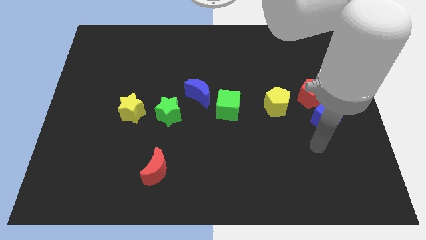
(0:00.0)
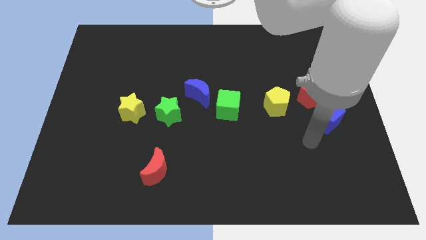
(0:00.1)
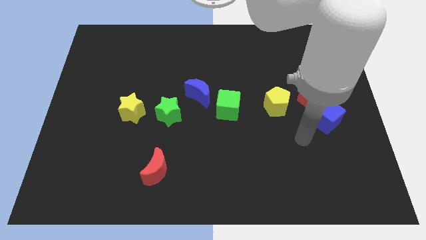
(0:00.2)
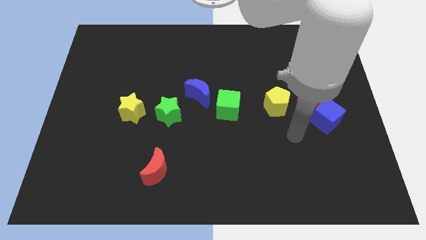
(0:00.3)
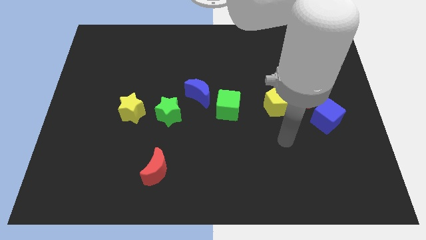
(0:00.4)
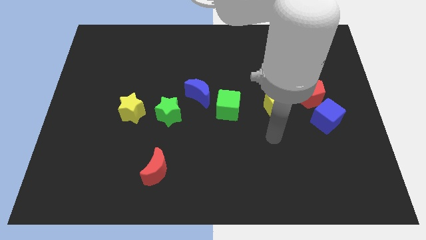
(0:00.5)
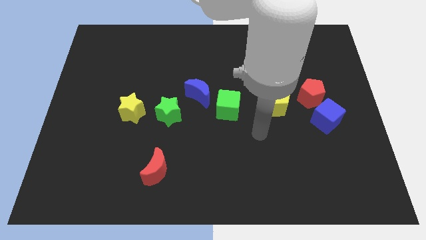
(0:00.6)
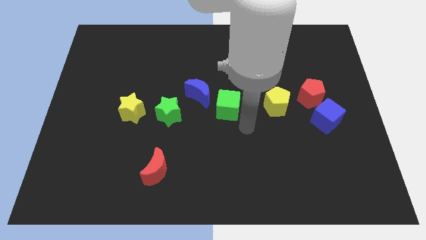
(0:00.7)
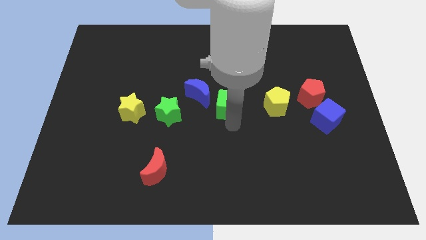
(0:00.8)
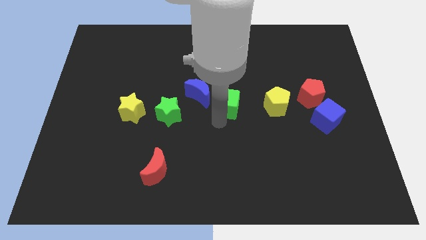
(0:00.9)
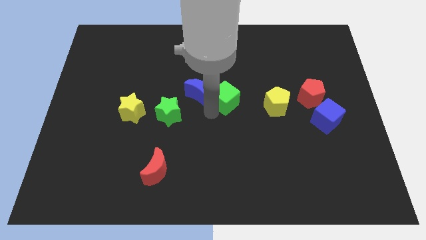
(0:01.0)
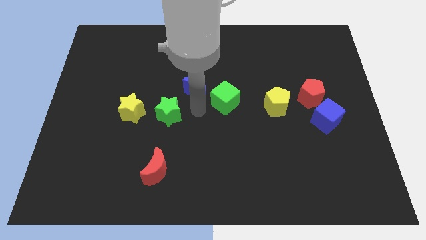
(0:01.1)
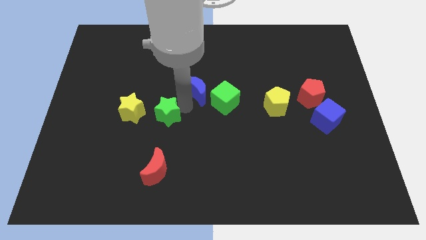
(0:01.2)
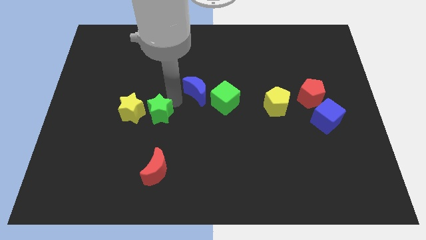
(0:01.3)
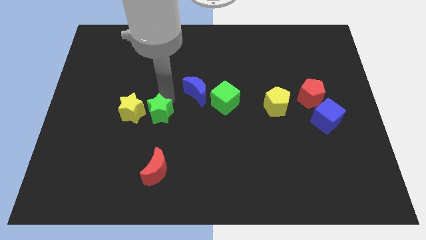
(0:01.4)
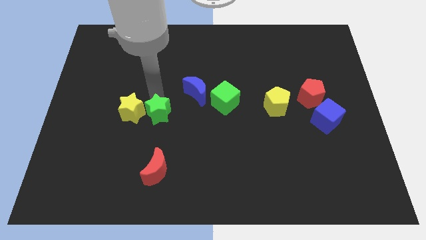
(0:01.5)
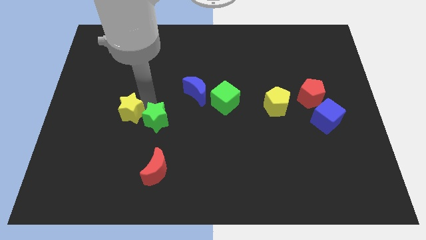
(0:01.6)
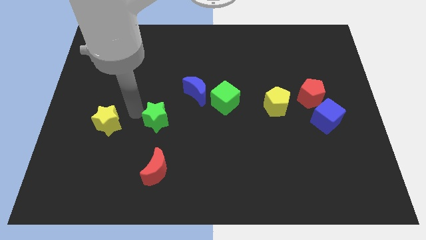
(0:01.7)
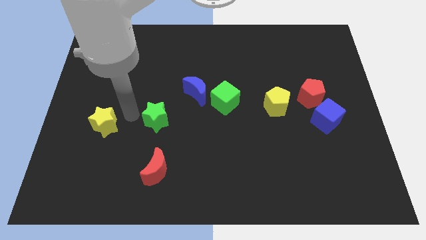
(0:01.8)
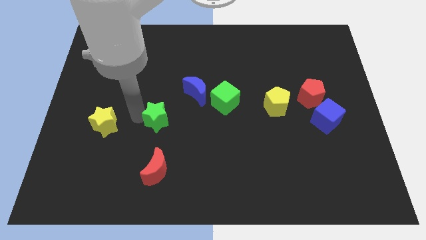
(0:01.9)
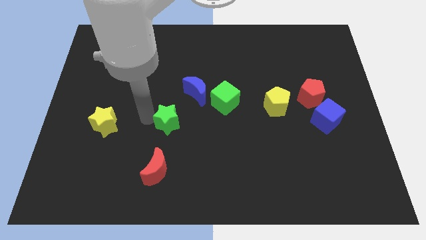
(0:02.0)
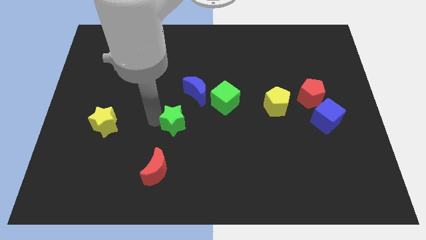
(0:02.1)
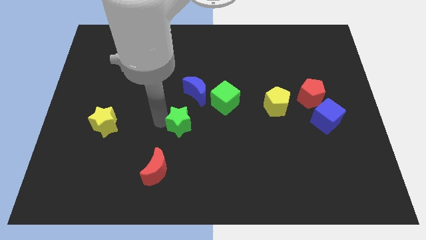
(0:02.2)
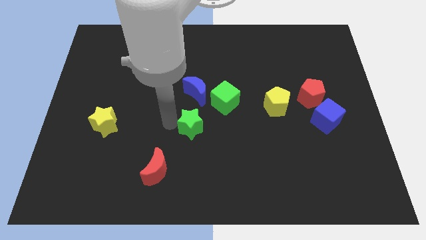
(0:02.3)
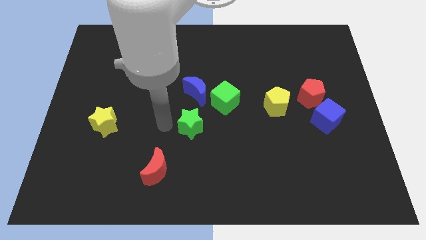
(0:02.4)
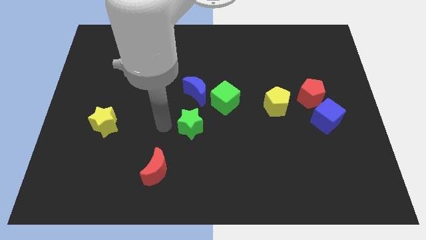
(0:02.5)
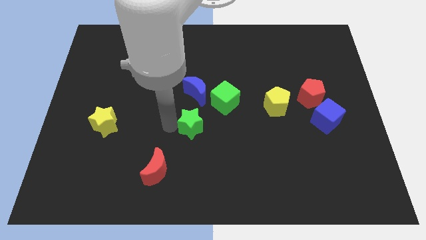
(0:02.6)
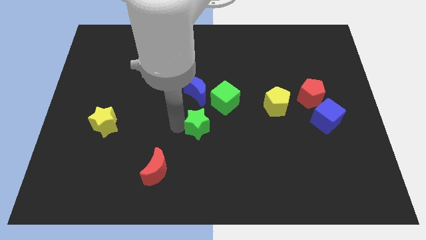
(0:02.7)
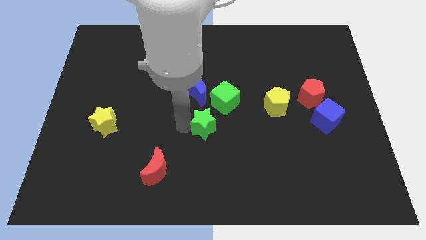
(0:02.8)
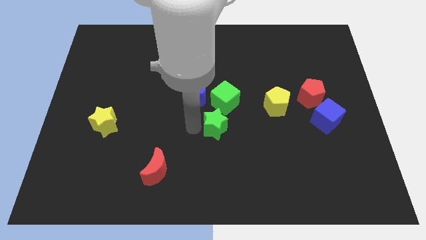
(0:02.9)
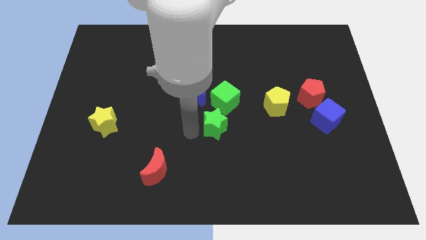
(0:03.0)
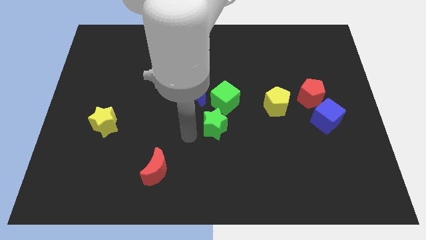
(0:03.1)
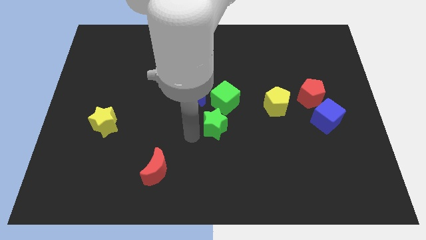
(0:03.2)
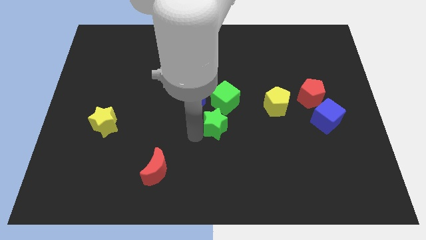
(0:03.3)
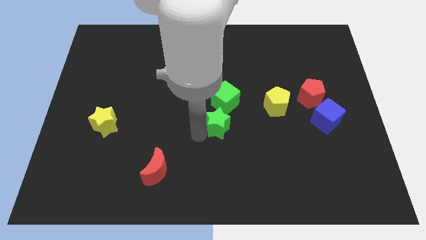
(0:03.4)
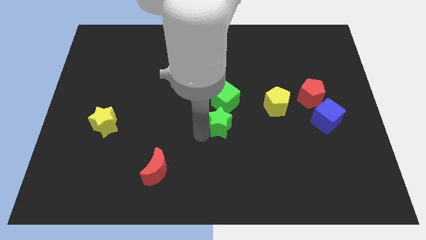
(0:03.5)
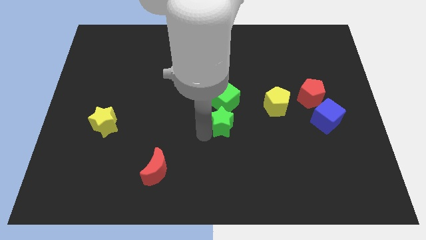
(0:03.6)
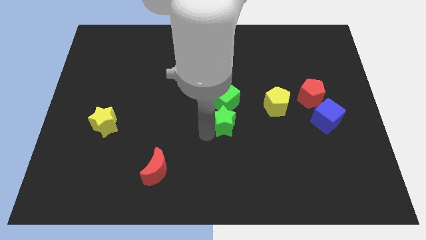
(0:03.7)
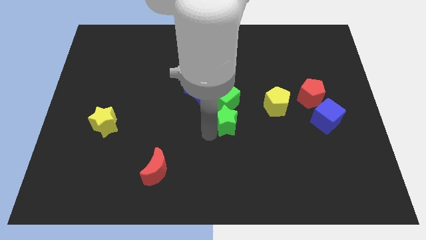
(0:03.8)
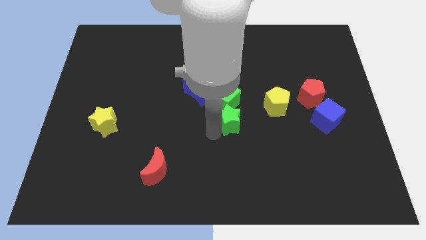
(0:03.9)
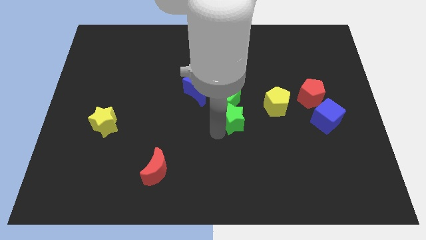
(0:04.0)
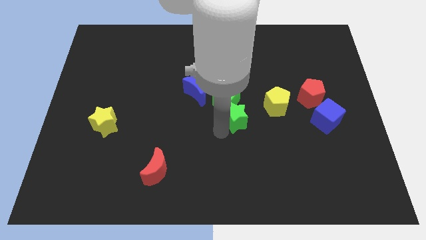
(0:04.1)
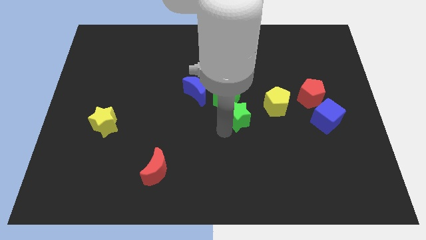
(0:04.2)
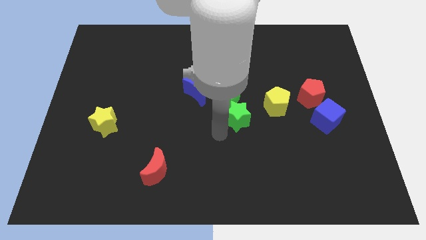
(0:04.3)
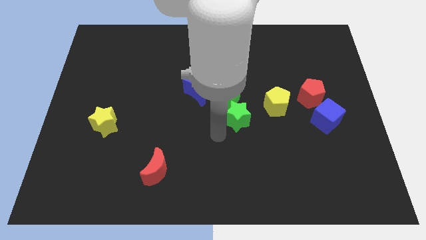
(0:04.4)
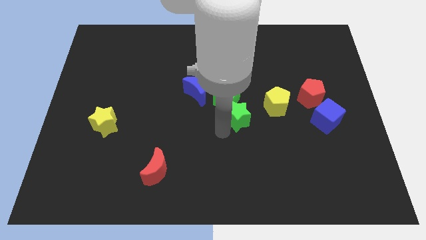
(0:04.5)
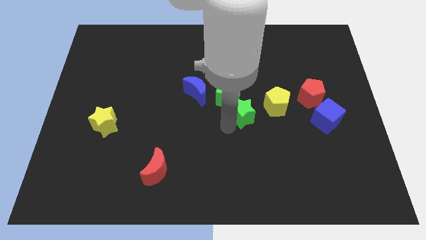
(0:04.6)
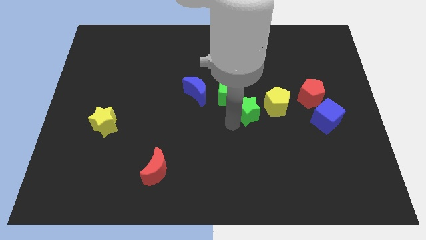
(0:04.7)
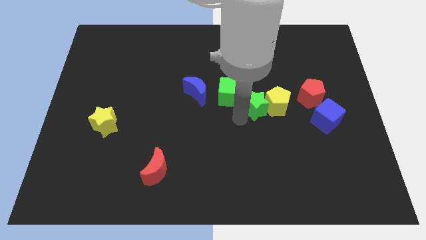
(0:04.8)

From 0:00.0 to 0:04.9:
push the green star left of the red pentagon

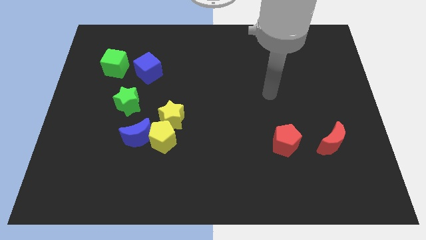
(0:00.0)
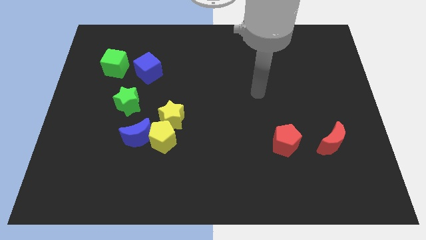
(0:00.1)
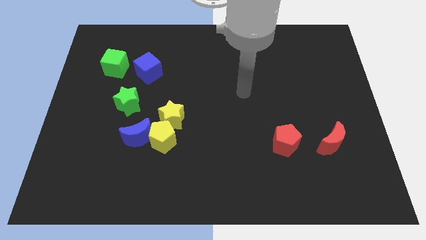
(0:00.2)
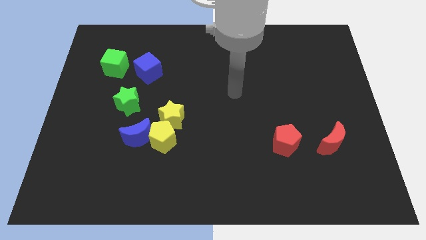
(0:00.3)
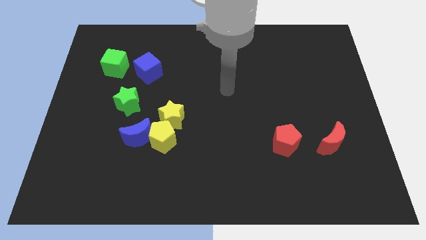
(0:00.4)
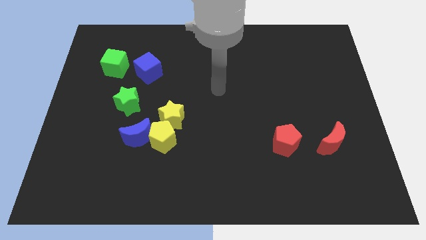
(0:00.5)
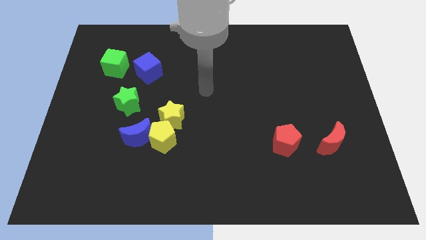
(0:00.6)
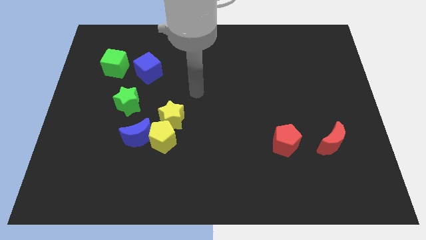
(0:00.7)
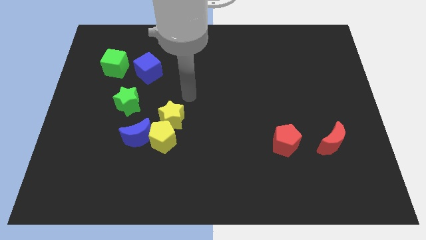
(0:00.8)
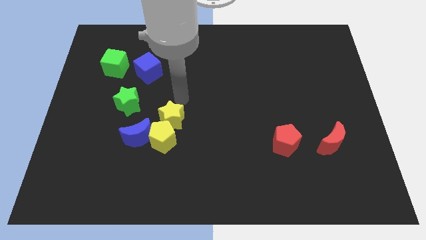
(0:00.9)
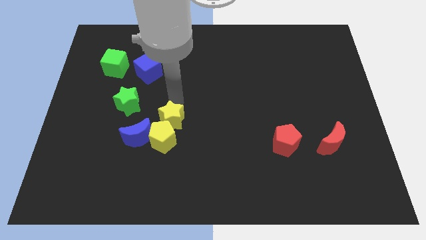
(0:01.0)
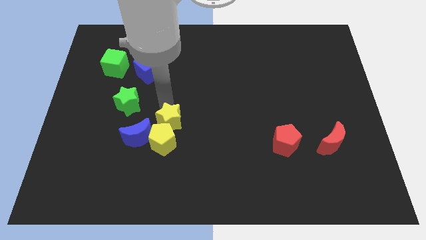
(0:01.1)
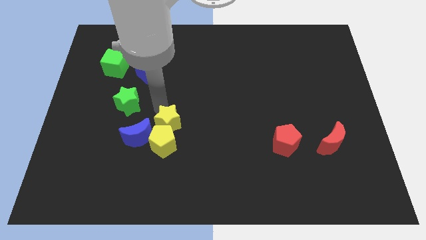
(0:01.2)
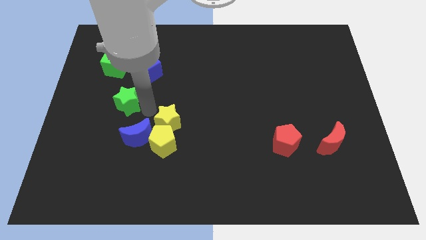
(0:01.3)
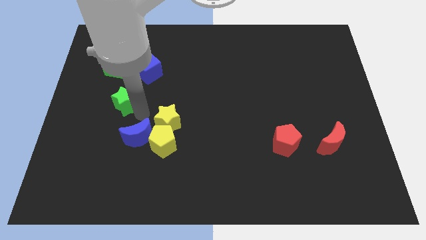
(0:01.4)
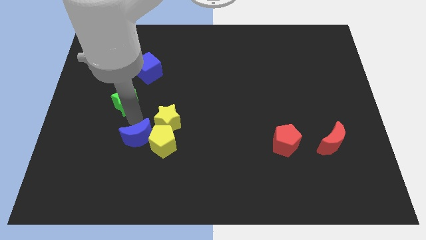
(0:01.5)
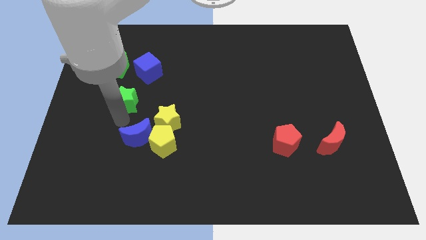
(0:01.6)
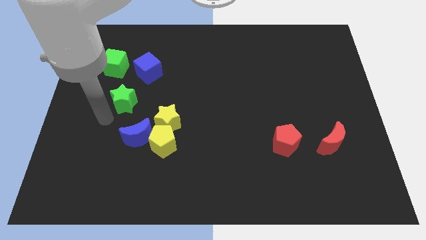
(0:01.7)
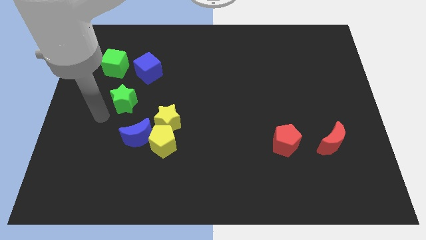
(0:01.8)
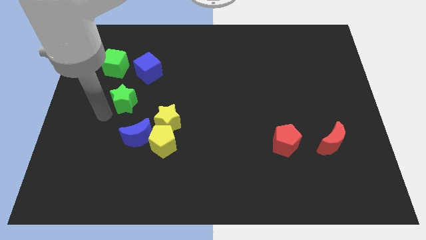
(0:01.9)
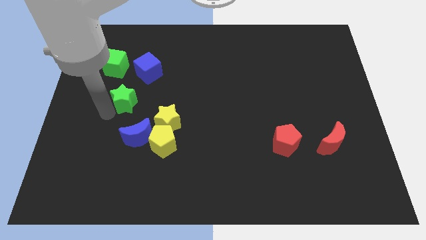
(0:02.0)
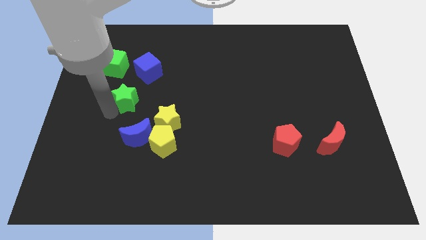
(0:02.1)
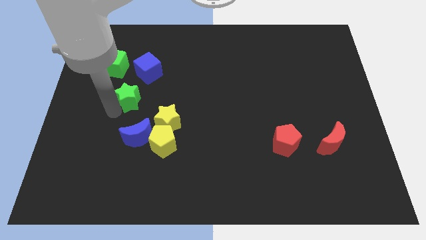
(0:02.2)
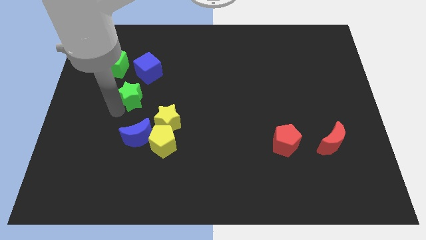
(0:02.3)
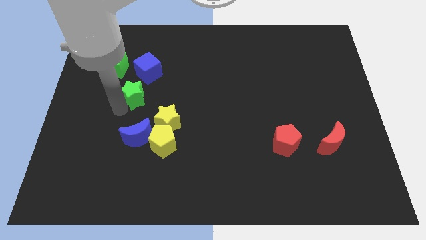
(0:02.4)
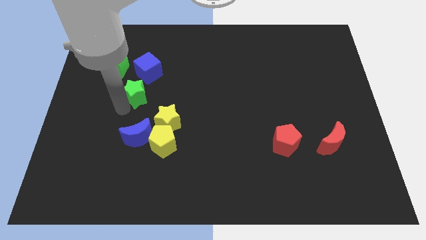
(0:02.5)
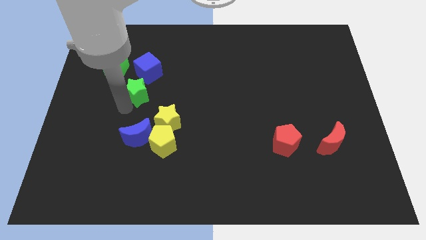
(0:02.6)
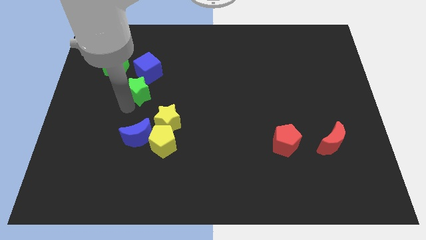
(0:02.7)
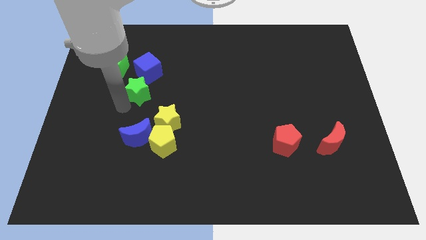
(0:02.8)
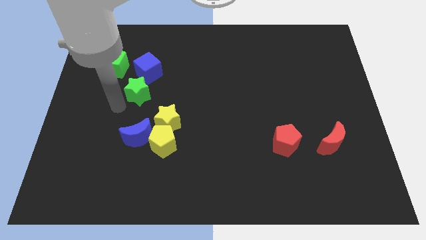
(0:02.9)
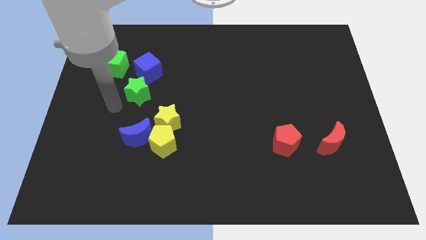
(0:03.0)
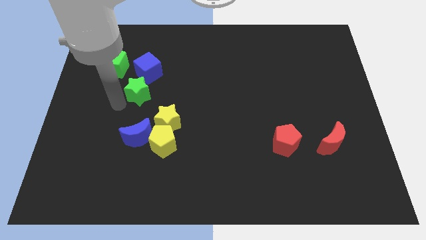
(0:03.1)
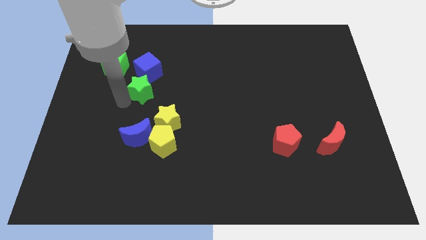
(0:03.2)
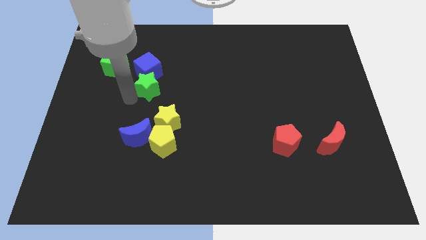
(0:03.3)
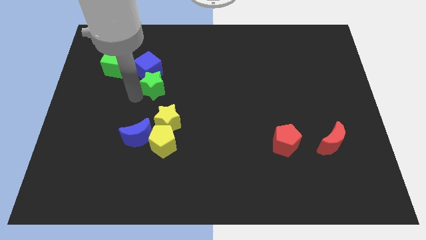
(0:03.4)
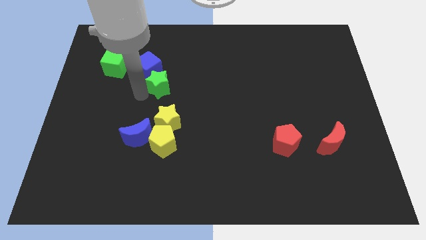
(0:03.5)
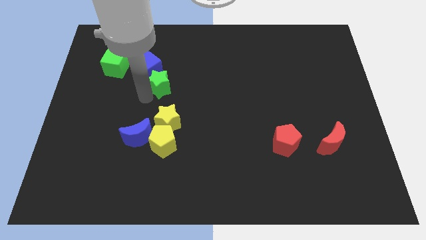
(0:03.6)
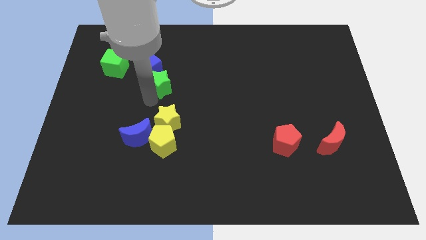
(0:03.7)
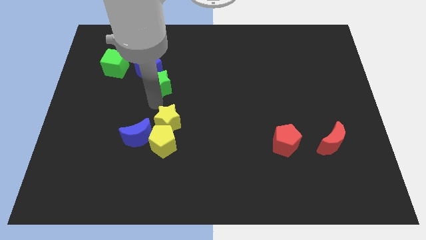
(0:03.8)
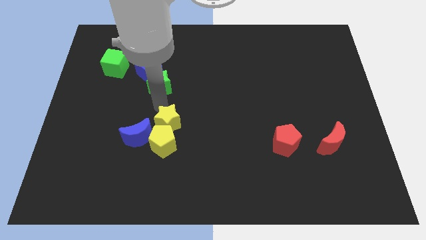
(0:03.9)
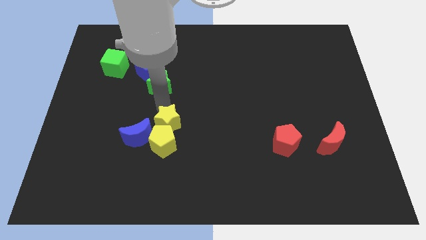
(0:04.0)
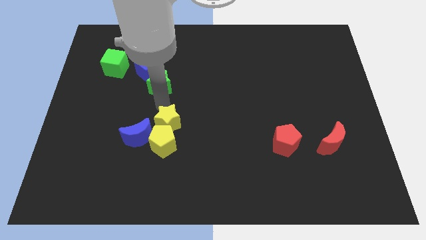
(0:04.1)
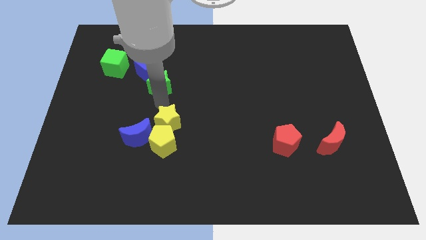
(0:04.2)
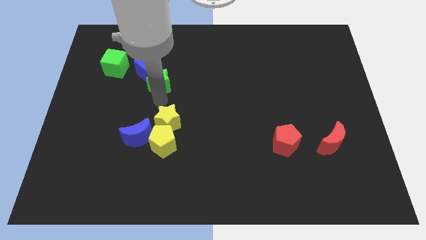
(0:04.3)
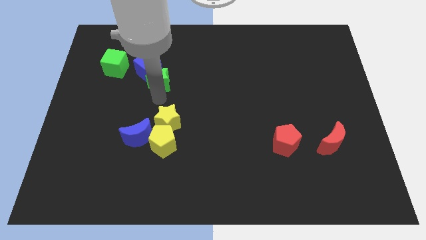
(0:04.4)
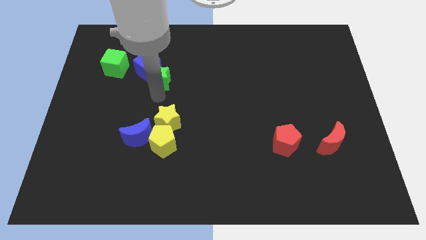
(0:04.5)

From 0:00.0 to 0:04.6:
move the green star to the right side of the green cube
